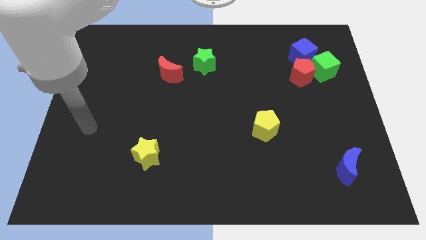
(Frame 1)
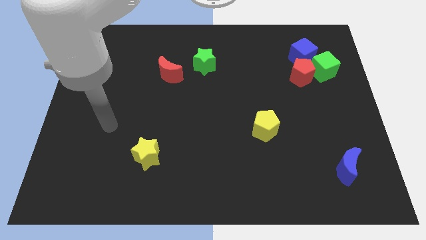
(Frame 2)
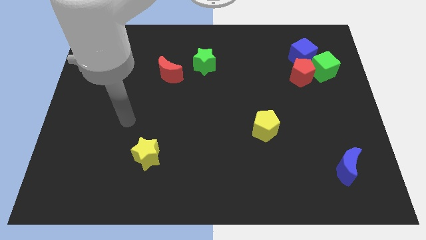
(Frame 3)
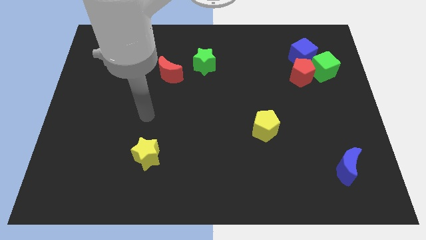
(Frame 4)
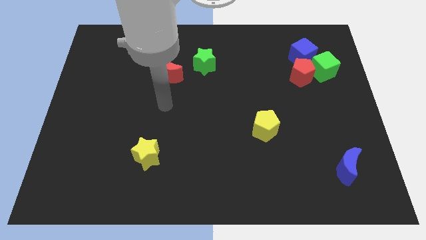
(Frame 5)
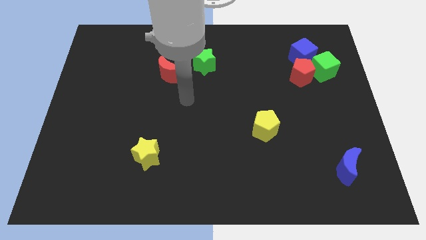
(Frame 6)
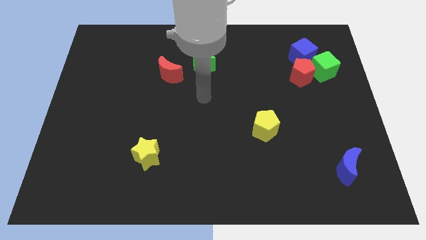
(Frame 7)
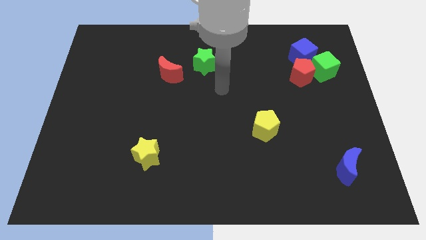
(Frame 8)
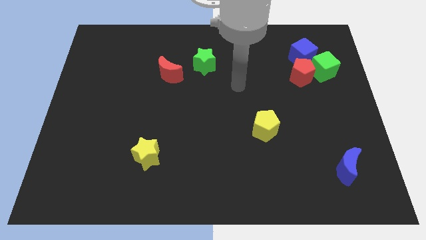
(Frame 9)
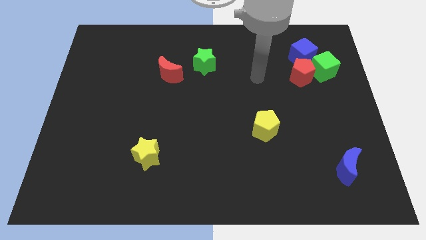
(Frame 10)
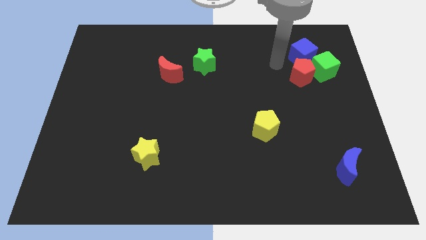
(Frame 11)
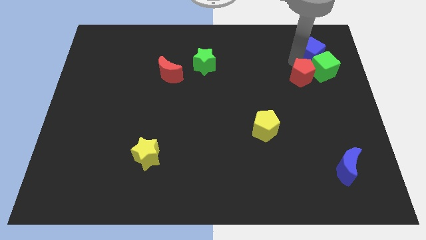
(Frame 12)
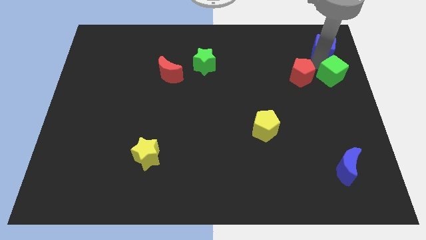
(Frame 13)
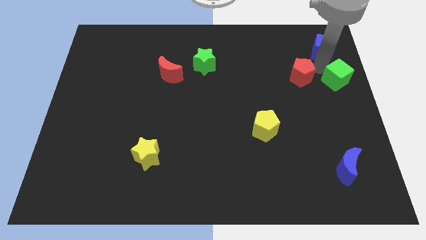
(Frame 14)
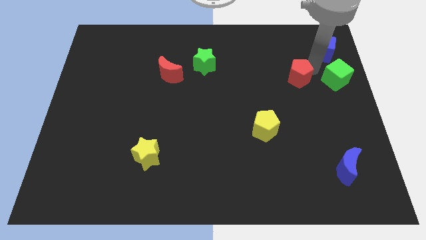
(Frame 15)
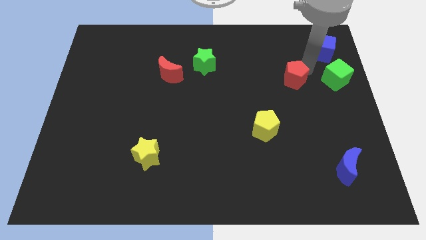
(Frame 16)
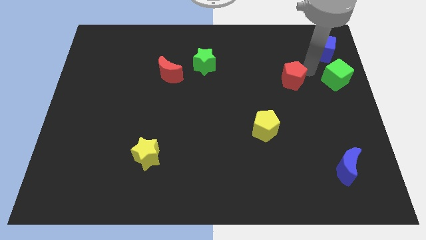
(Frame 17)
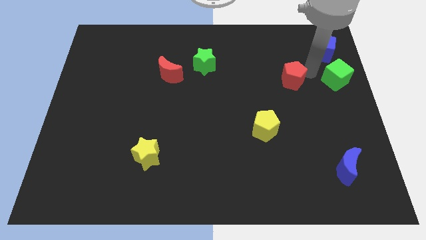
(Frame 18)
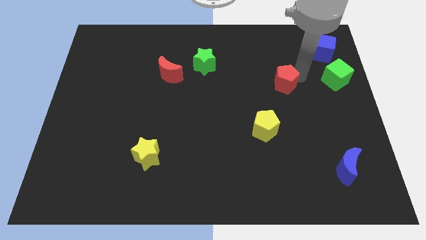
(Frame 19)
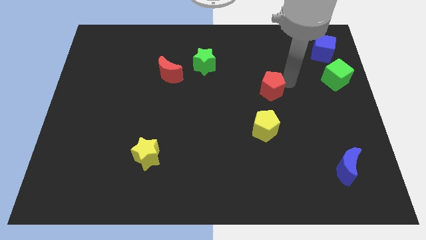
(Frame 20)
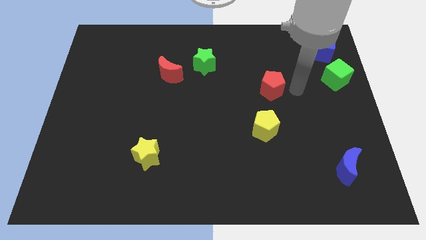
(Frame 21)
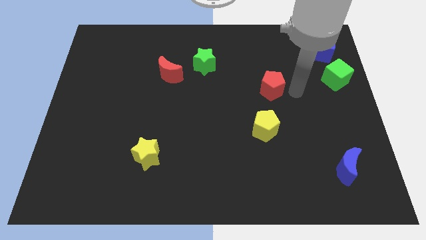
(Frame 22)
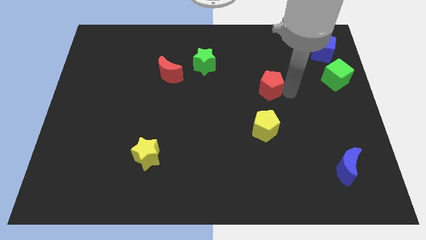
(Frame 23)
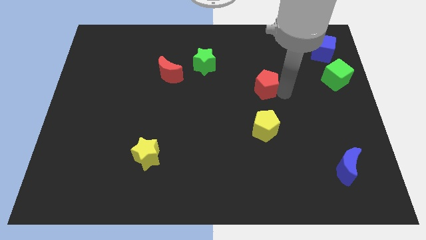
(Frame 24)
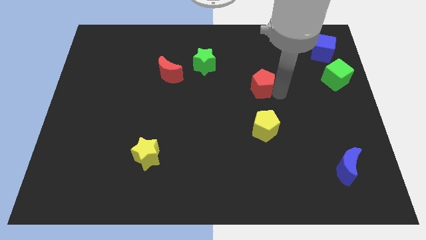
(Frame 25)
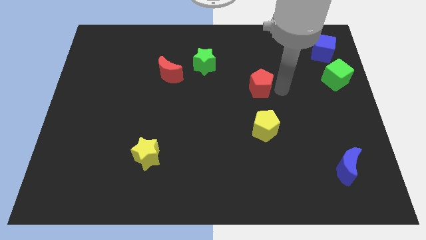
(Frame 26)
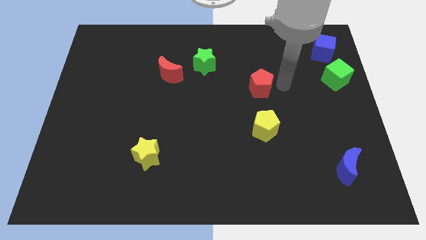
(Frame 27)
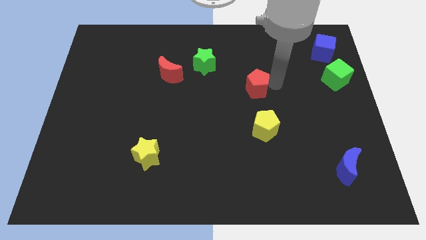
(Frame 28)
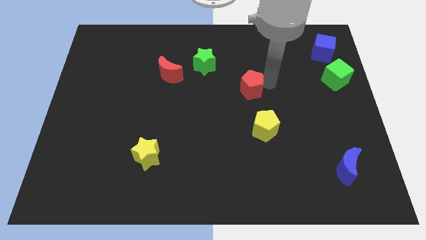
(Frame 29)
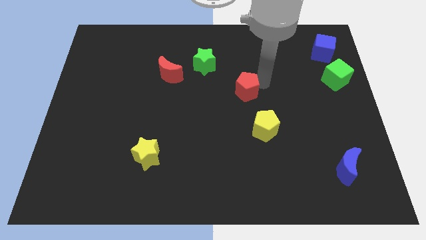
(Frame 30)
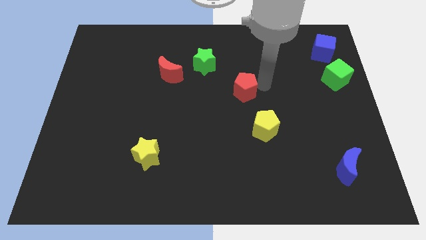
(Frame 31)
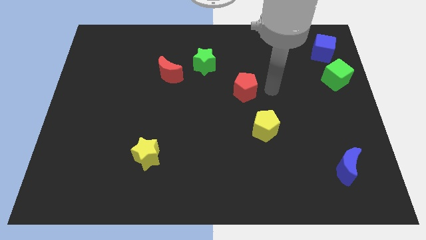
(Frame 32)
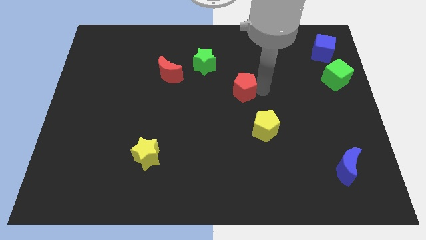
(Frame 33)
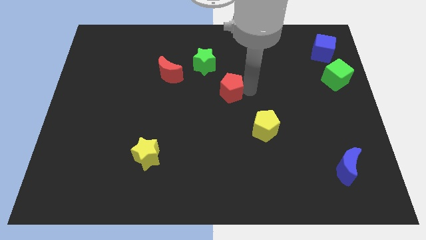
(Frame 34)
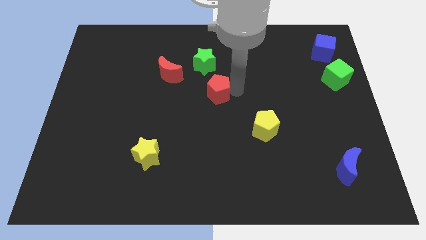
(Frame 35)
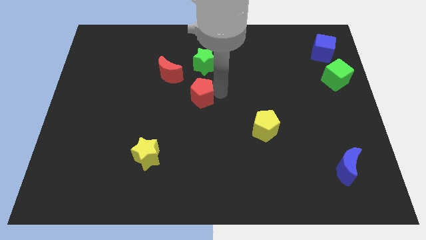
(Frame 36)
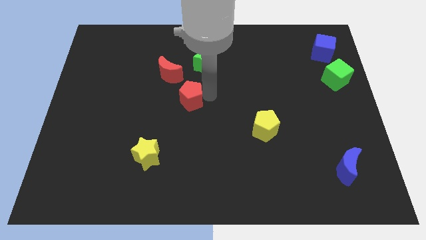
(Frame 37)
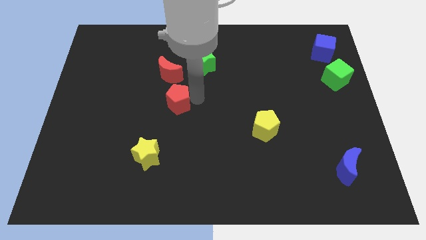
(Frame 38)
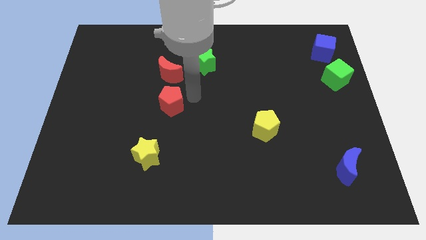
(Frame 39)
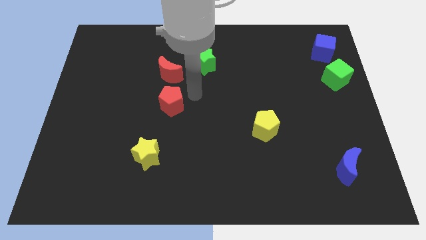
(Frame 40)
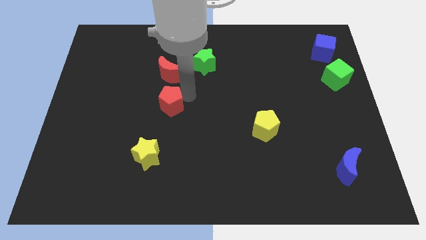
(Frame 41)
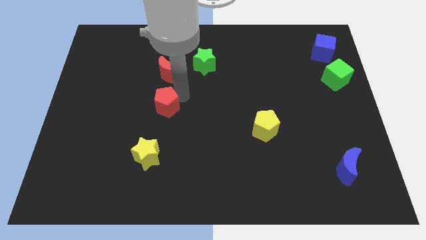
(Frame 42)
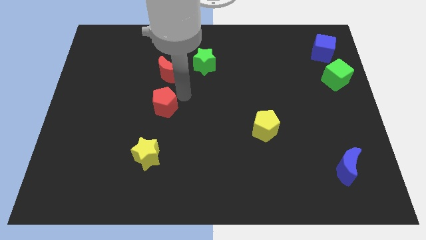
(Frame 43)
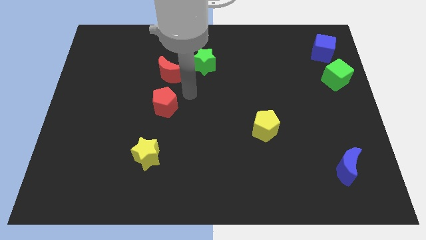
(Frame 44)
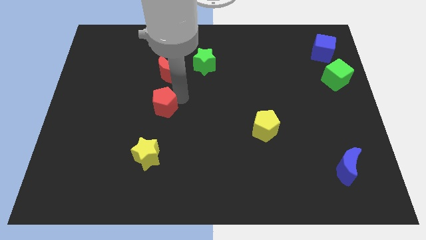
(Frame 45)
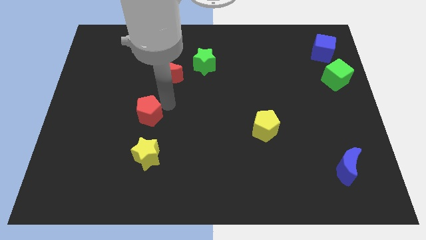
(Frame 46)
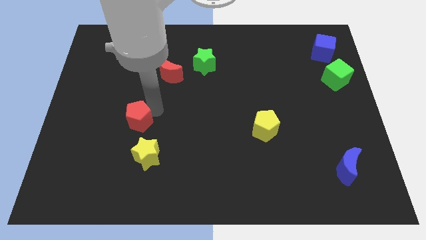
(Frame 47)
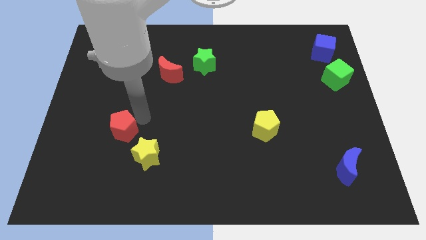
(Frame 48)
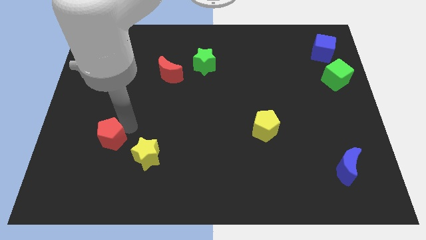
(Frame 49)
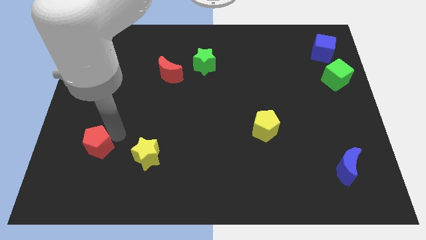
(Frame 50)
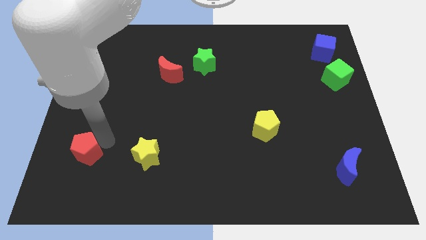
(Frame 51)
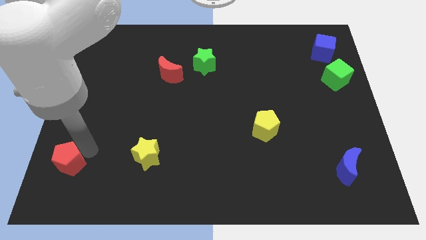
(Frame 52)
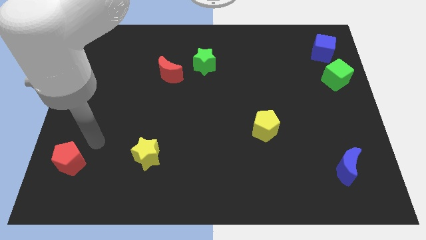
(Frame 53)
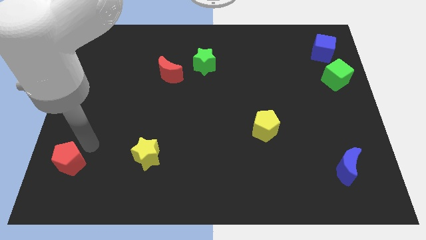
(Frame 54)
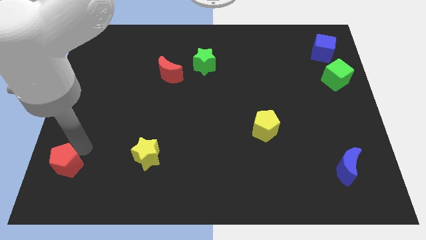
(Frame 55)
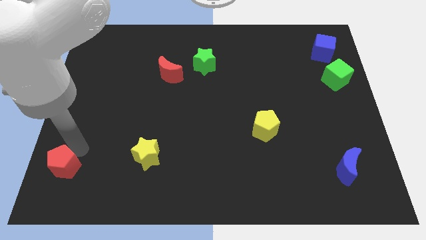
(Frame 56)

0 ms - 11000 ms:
move the red pentagon to the bottom left corner

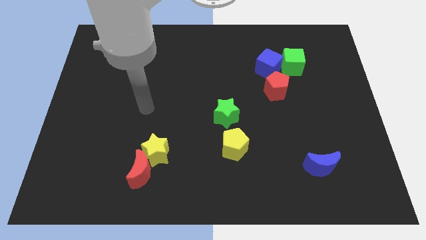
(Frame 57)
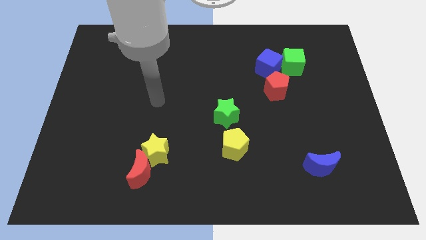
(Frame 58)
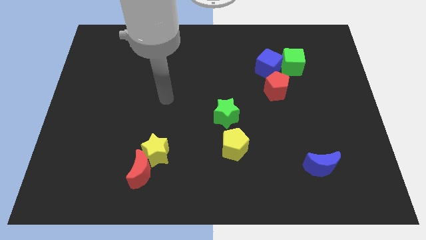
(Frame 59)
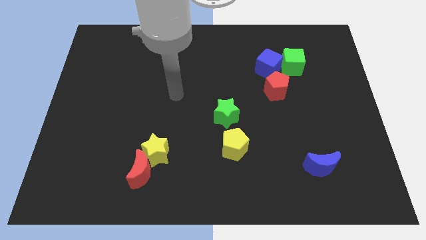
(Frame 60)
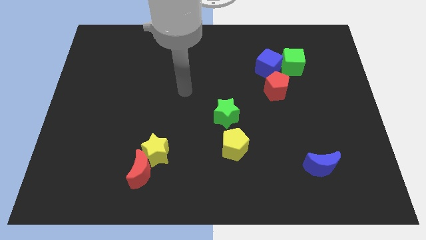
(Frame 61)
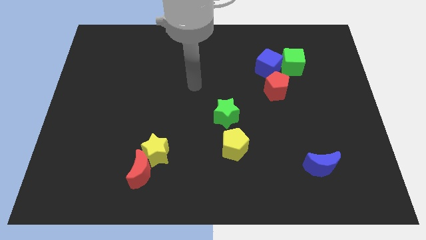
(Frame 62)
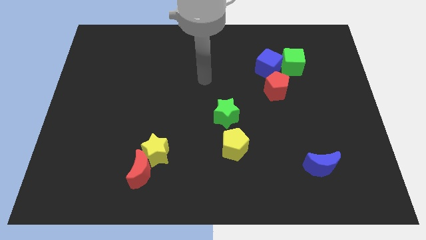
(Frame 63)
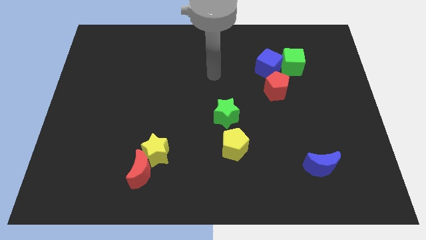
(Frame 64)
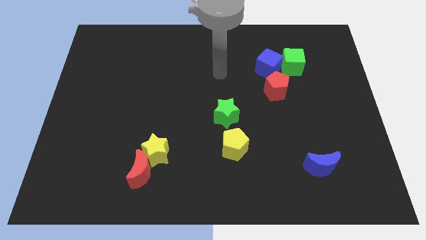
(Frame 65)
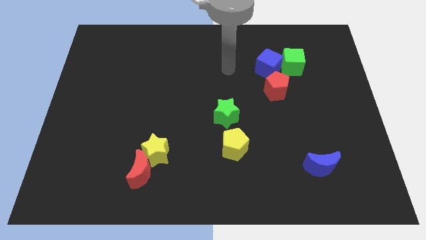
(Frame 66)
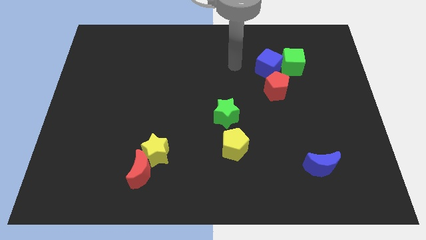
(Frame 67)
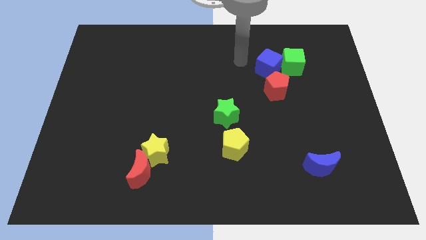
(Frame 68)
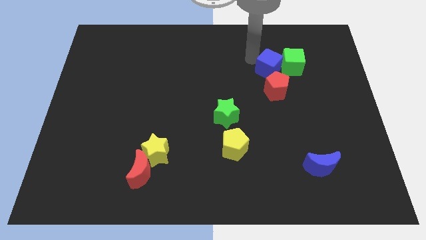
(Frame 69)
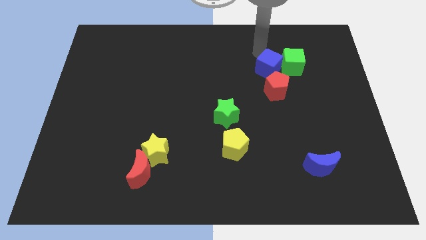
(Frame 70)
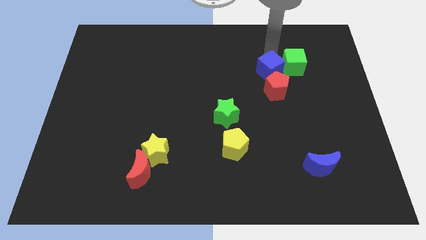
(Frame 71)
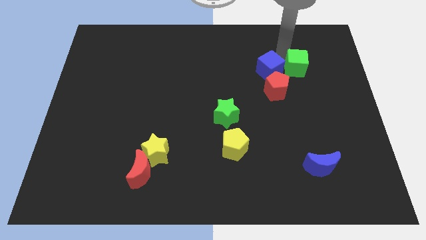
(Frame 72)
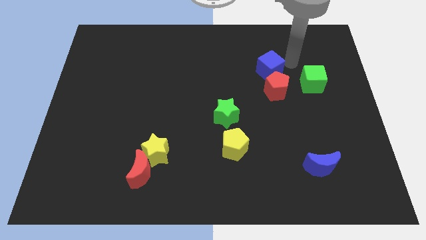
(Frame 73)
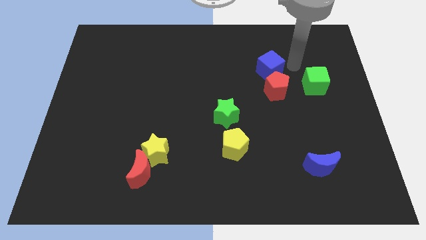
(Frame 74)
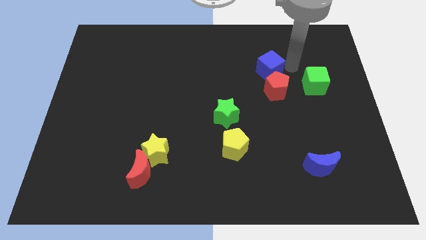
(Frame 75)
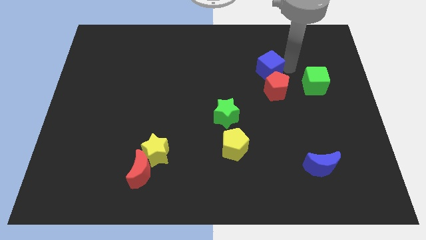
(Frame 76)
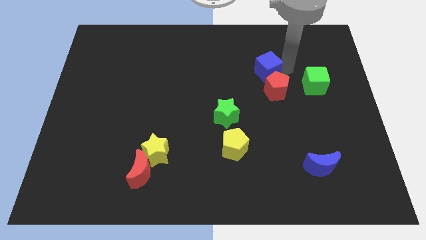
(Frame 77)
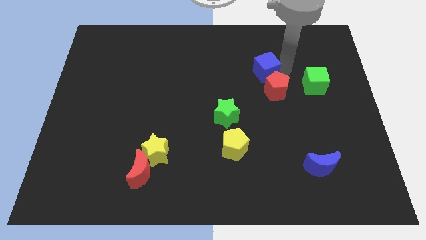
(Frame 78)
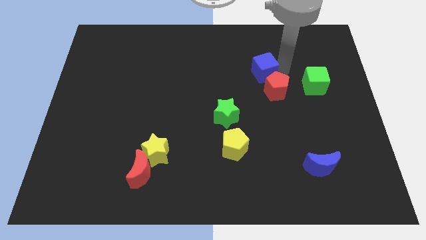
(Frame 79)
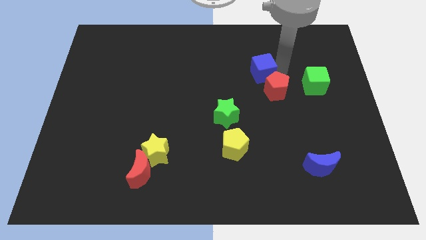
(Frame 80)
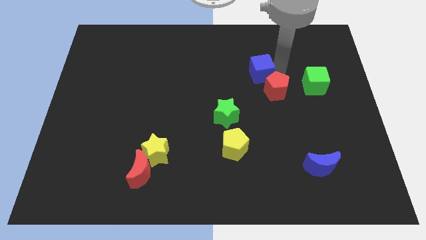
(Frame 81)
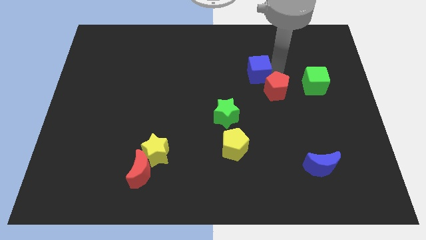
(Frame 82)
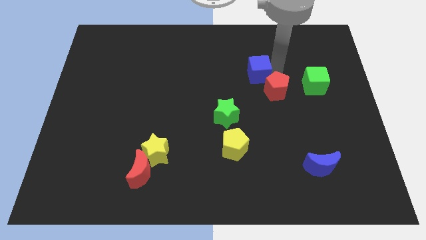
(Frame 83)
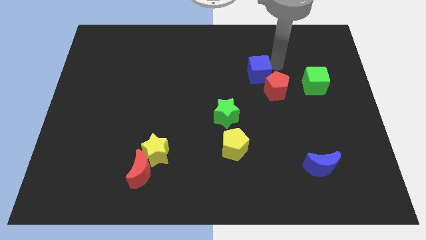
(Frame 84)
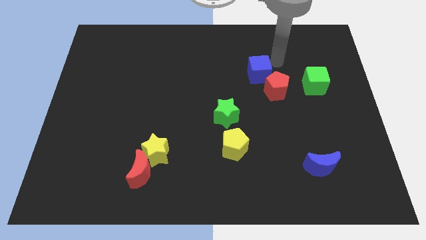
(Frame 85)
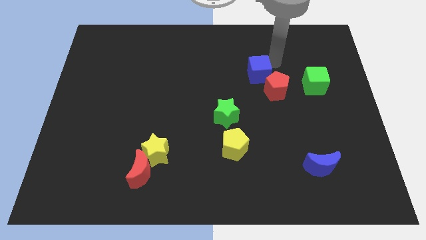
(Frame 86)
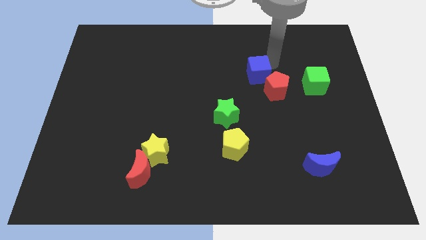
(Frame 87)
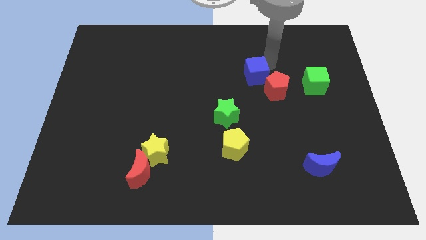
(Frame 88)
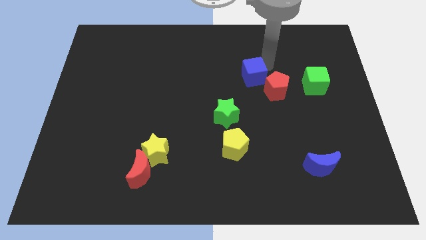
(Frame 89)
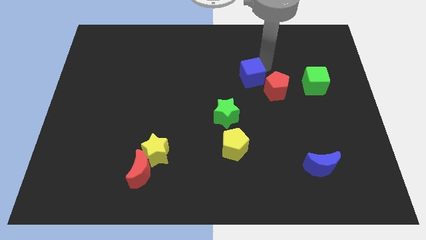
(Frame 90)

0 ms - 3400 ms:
move the blue cube to the middle of the board
